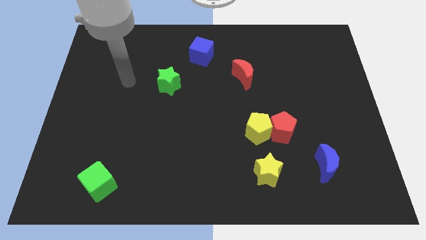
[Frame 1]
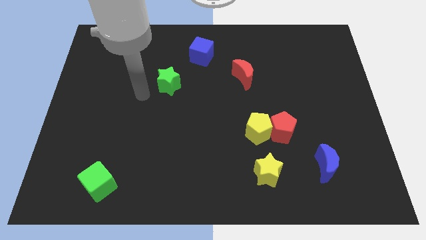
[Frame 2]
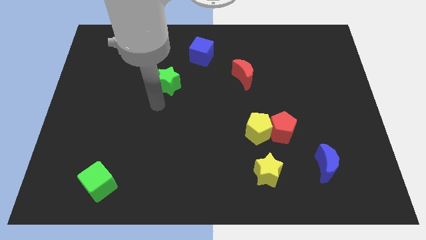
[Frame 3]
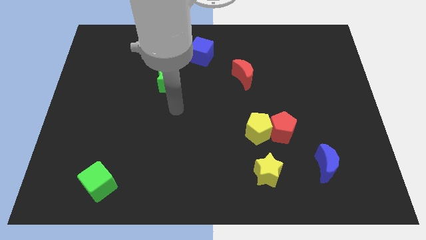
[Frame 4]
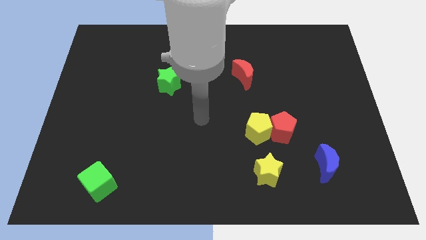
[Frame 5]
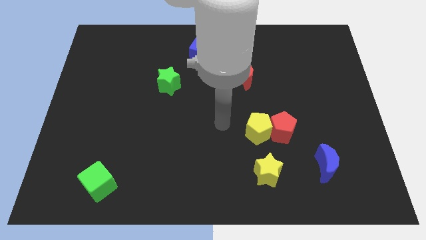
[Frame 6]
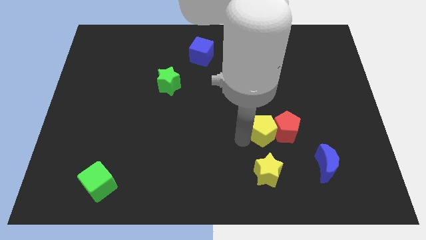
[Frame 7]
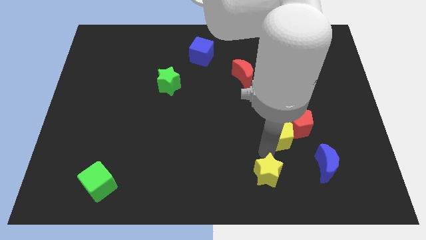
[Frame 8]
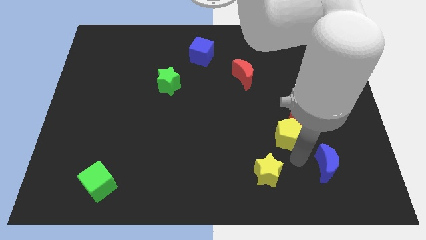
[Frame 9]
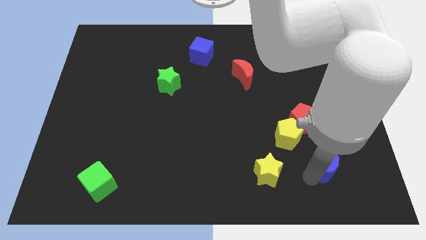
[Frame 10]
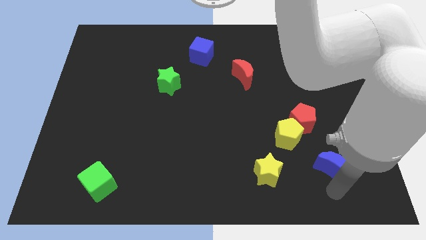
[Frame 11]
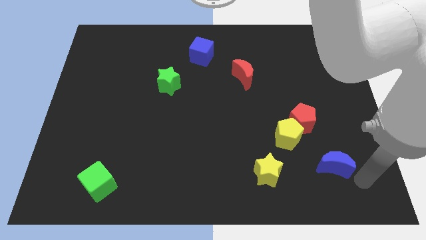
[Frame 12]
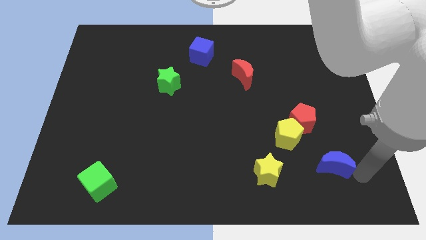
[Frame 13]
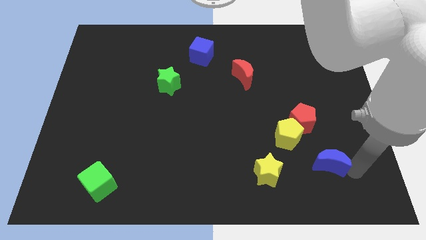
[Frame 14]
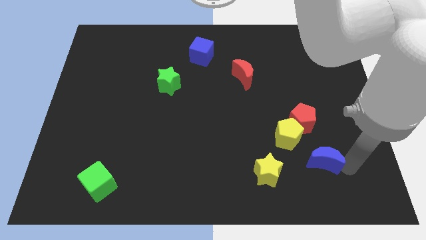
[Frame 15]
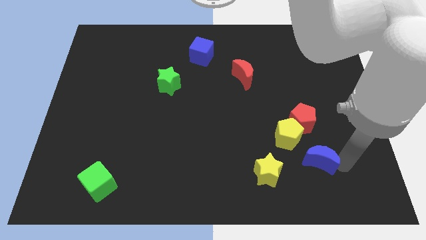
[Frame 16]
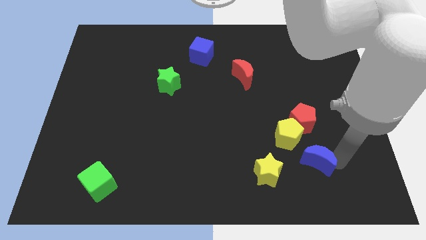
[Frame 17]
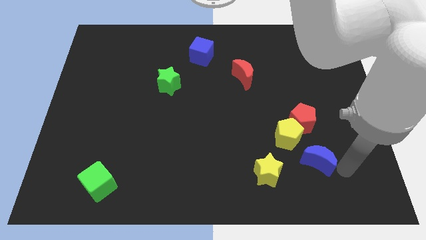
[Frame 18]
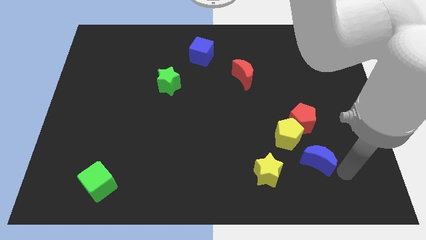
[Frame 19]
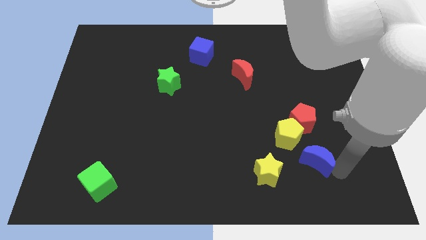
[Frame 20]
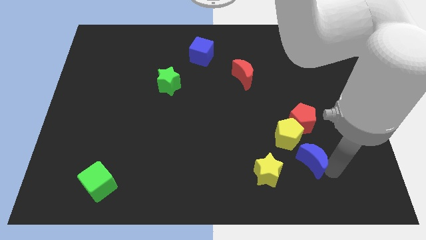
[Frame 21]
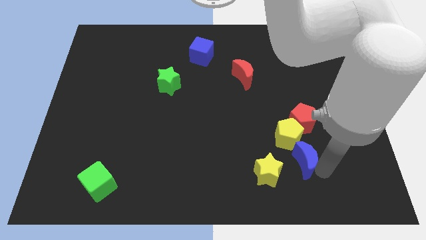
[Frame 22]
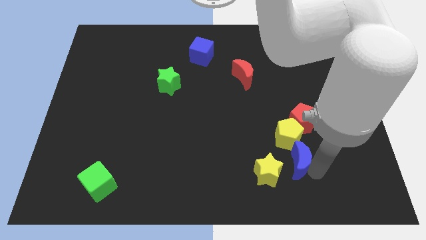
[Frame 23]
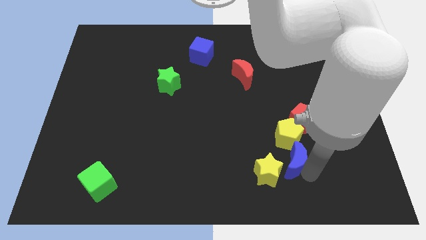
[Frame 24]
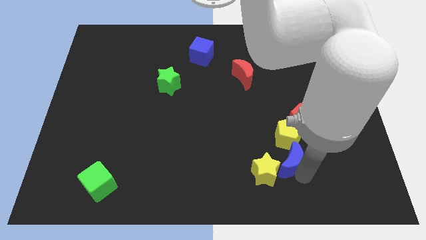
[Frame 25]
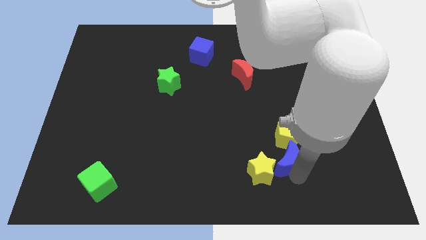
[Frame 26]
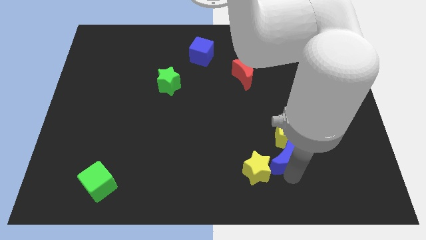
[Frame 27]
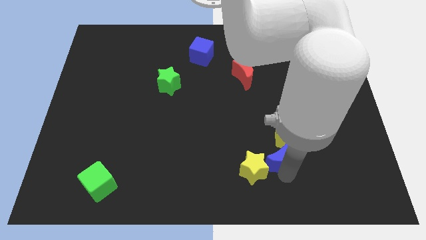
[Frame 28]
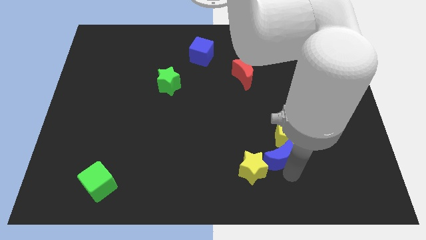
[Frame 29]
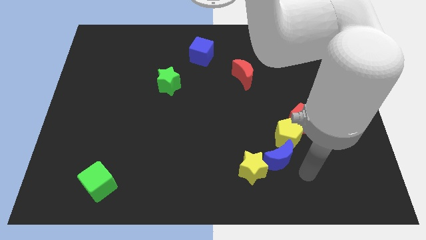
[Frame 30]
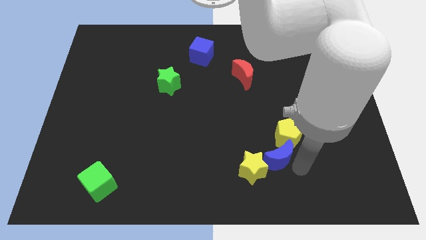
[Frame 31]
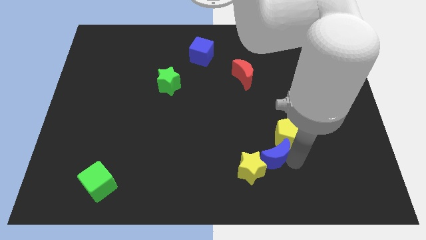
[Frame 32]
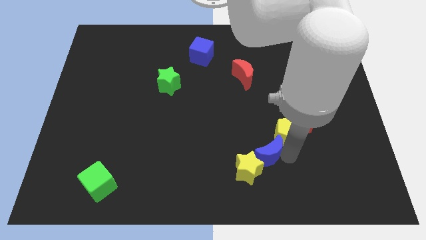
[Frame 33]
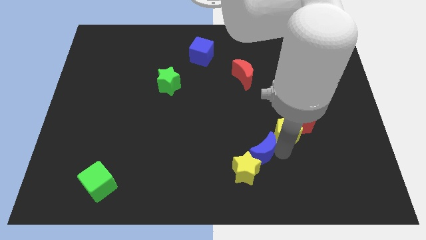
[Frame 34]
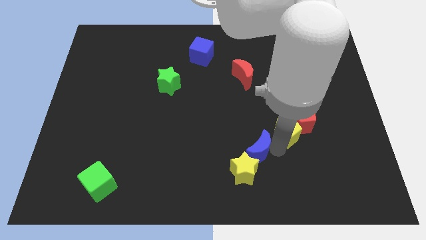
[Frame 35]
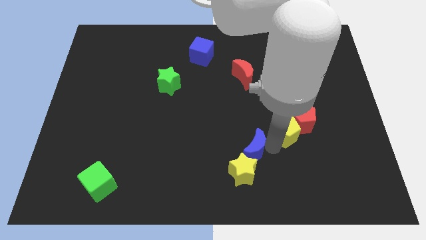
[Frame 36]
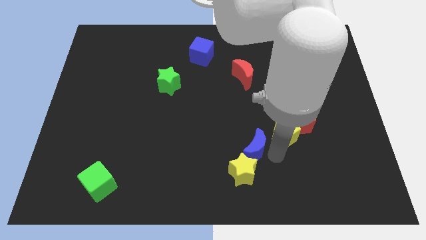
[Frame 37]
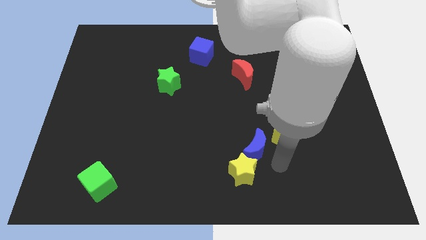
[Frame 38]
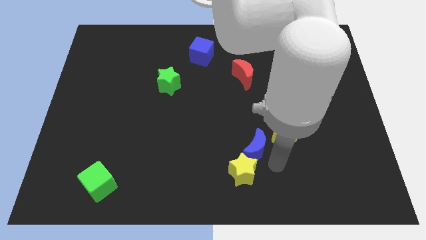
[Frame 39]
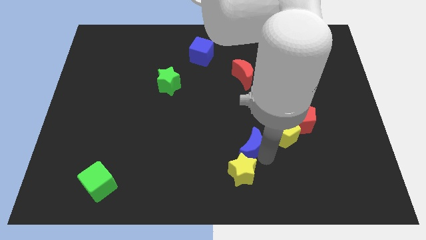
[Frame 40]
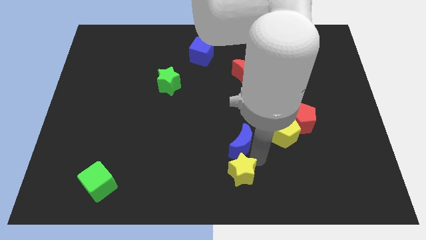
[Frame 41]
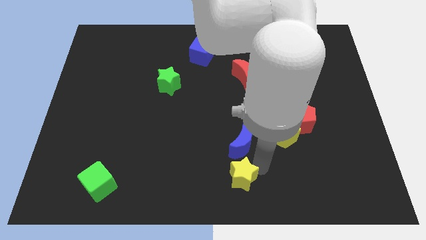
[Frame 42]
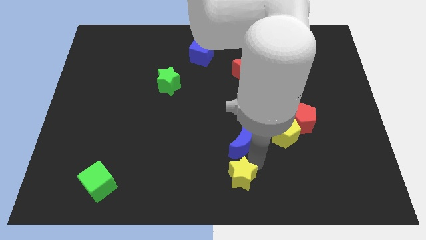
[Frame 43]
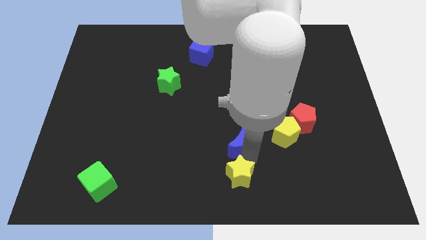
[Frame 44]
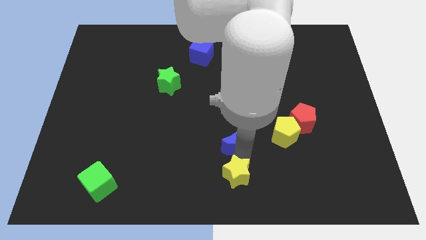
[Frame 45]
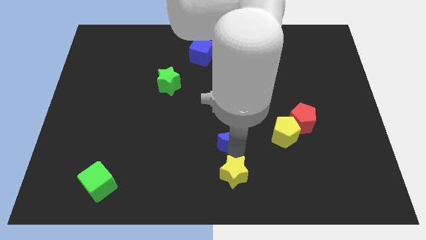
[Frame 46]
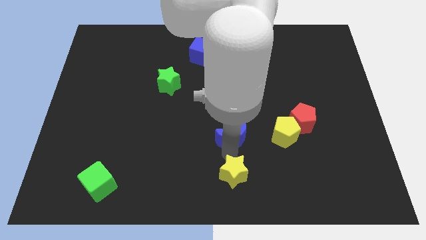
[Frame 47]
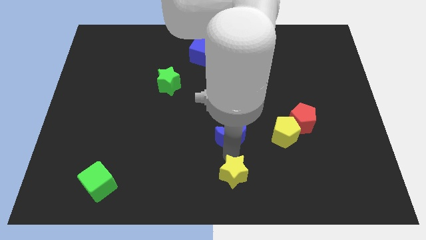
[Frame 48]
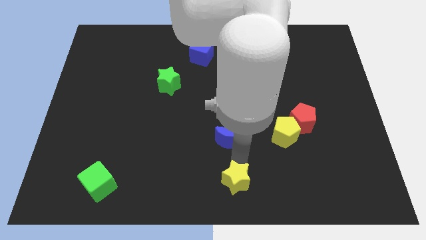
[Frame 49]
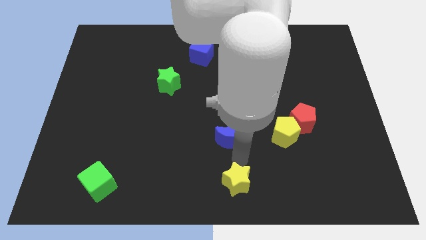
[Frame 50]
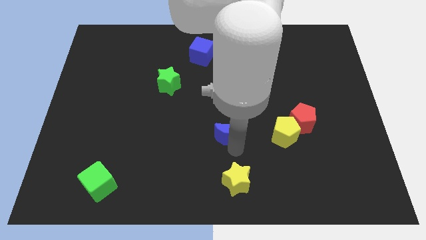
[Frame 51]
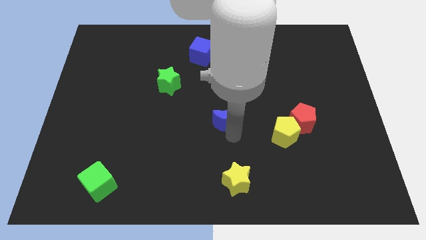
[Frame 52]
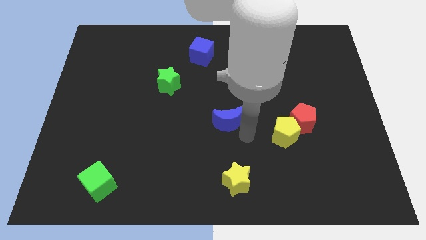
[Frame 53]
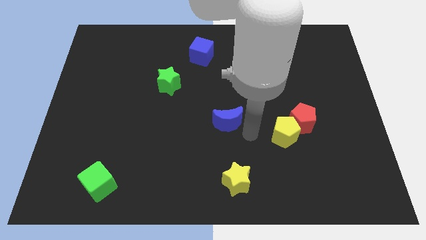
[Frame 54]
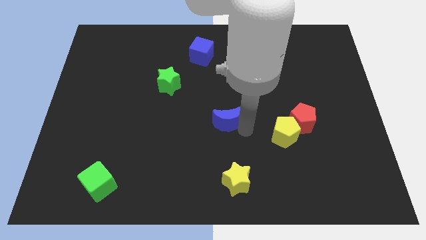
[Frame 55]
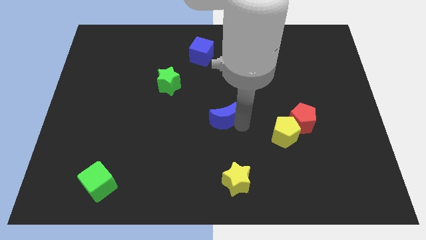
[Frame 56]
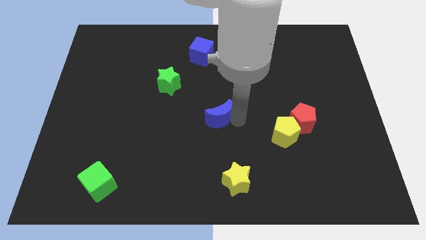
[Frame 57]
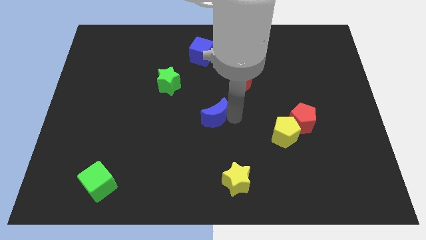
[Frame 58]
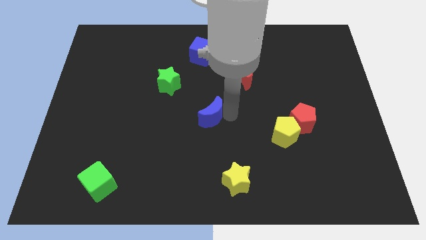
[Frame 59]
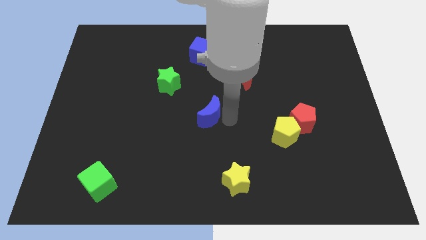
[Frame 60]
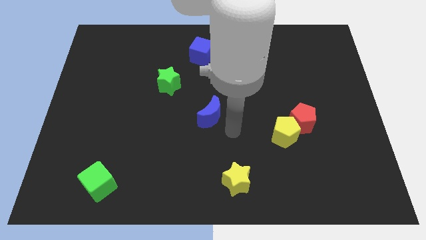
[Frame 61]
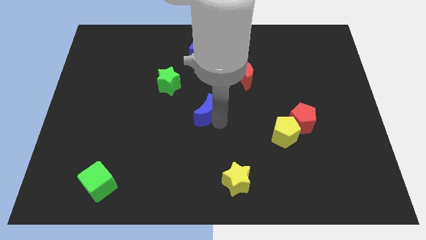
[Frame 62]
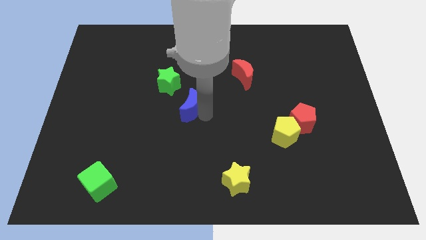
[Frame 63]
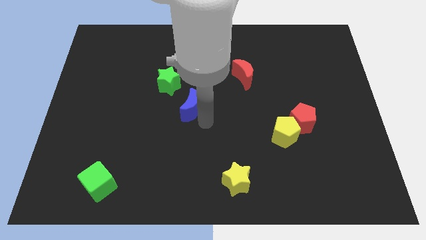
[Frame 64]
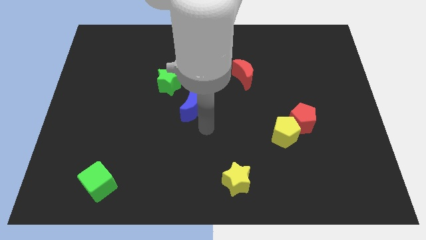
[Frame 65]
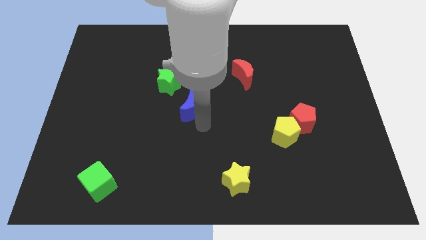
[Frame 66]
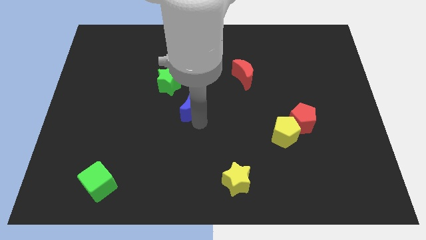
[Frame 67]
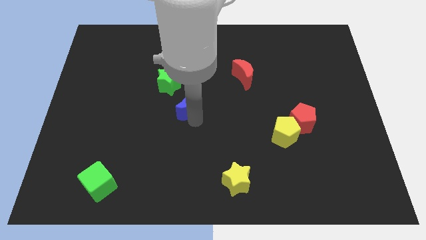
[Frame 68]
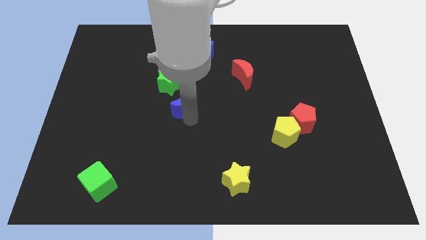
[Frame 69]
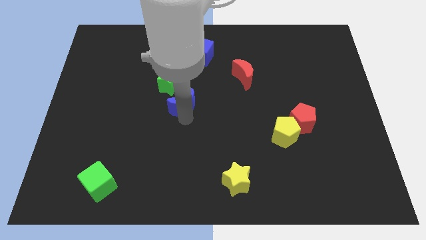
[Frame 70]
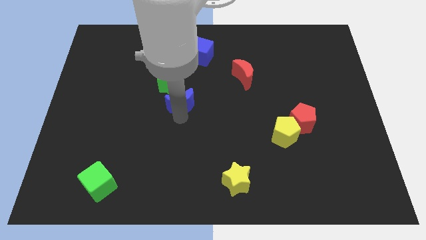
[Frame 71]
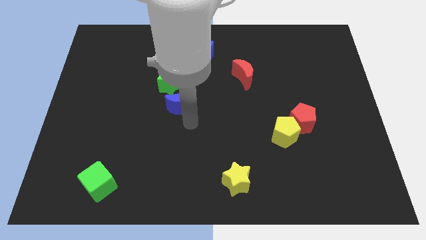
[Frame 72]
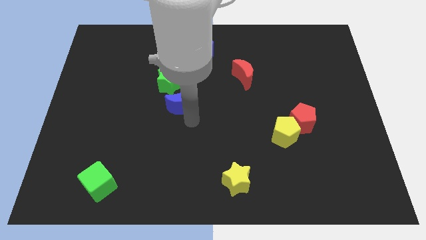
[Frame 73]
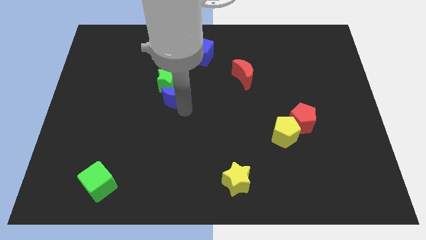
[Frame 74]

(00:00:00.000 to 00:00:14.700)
slide the blue moon towards the green star
